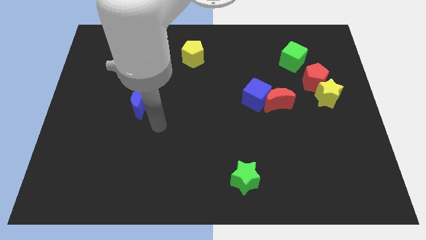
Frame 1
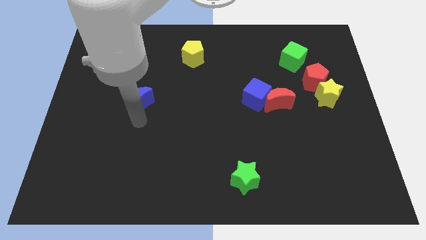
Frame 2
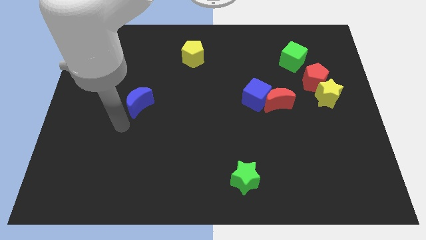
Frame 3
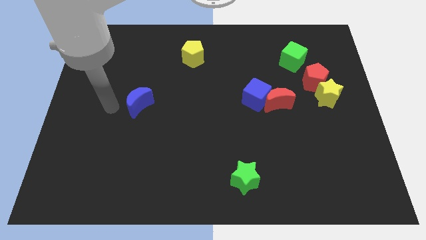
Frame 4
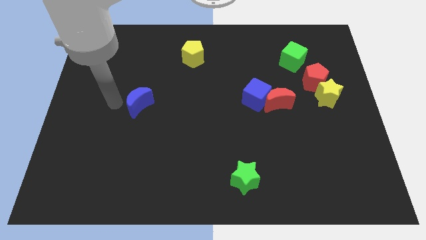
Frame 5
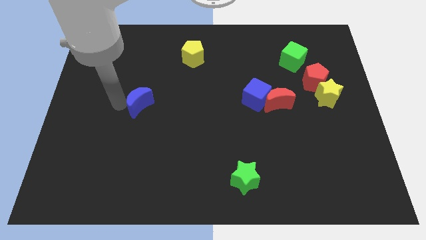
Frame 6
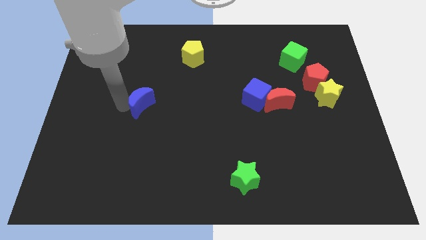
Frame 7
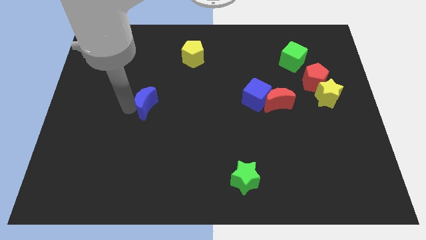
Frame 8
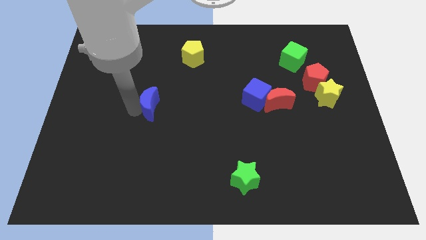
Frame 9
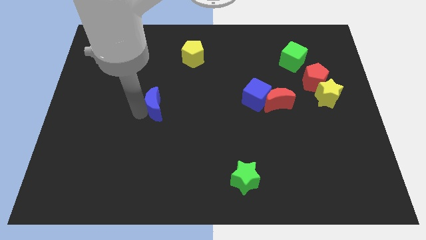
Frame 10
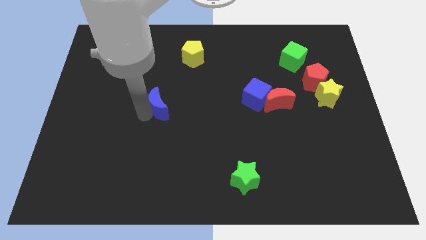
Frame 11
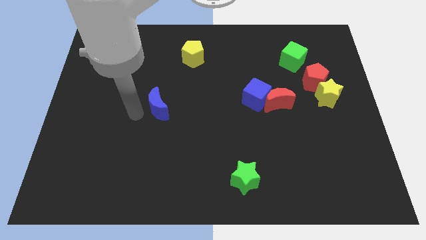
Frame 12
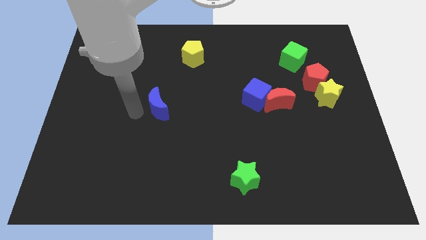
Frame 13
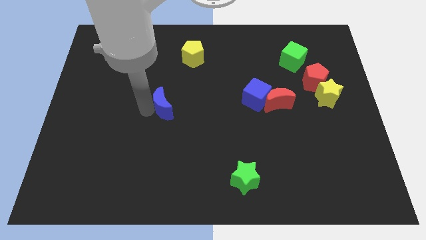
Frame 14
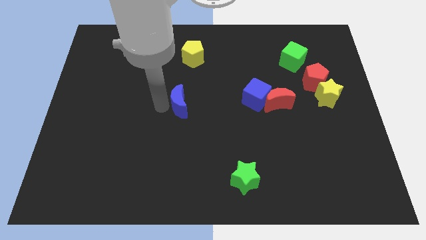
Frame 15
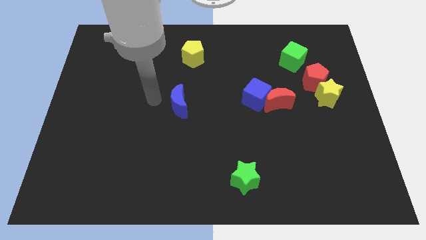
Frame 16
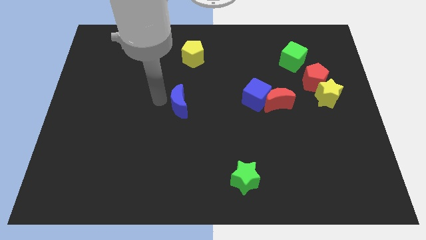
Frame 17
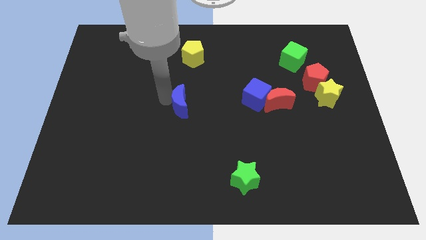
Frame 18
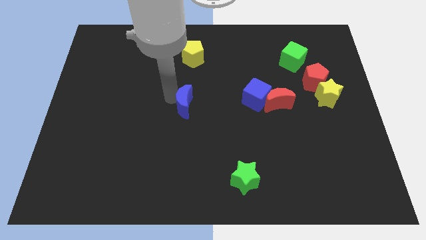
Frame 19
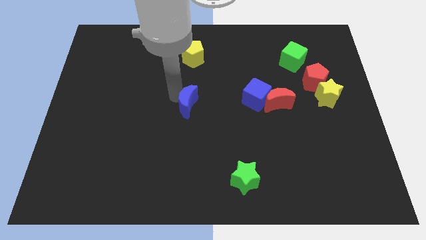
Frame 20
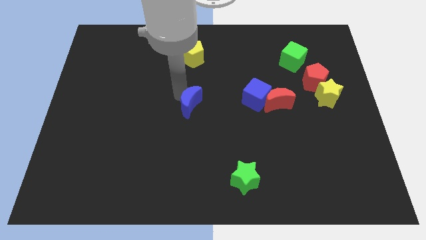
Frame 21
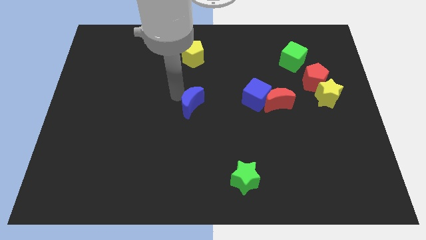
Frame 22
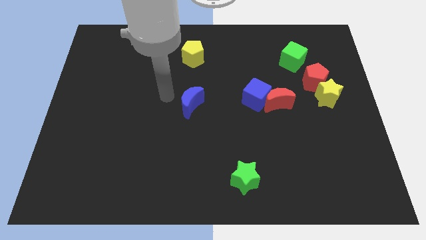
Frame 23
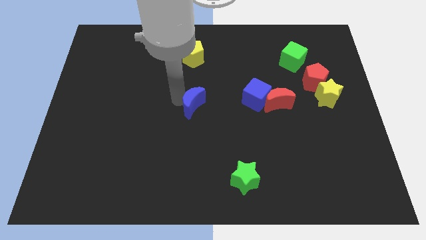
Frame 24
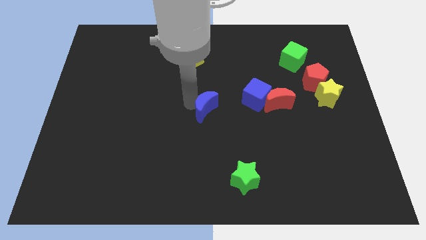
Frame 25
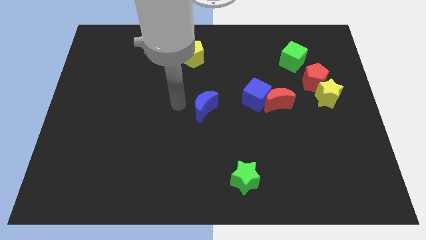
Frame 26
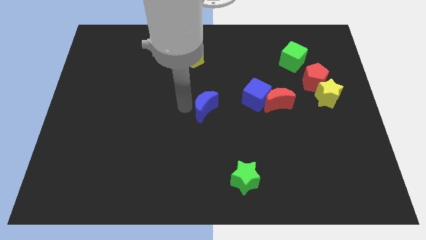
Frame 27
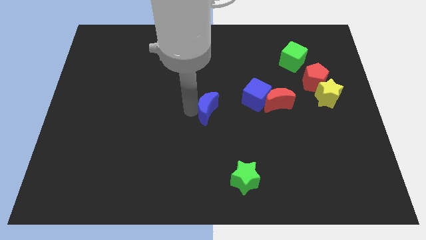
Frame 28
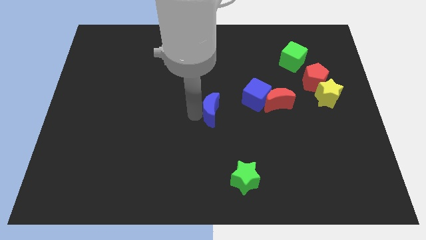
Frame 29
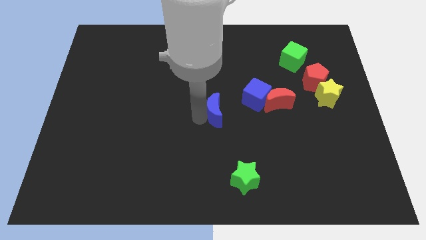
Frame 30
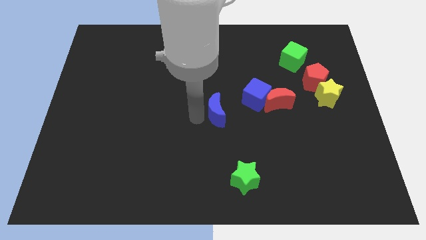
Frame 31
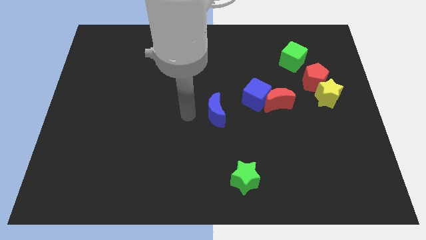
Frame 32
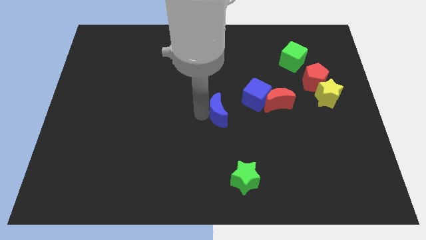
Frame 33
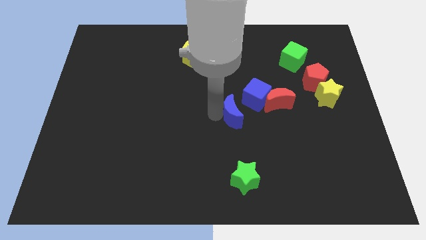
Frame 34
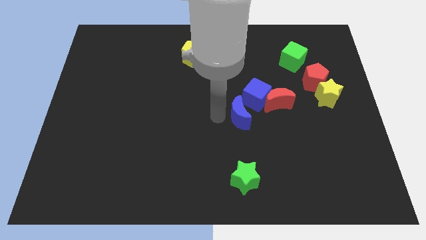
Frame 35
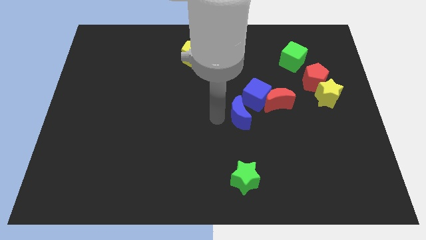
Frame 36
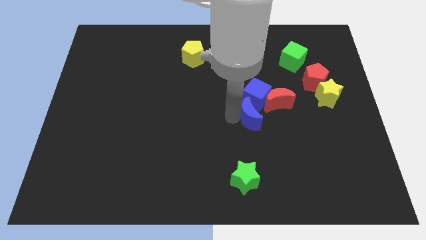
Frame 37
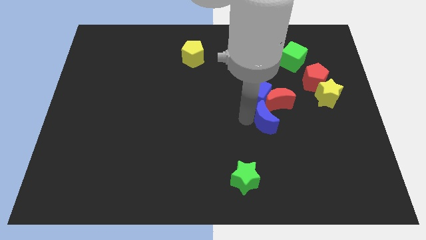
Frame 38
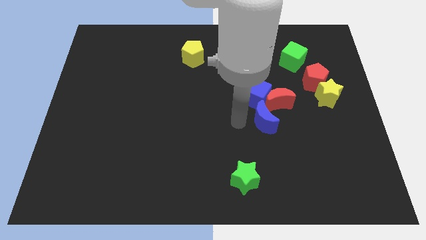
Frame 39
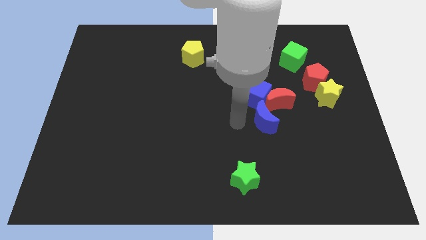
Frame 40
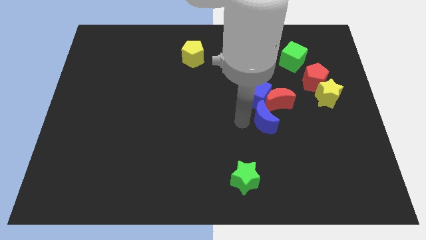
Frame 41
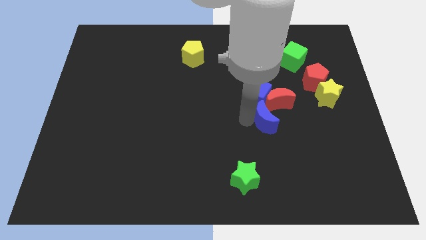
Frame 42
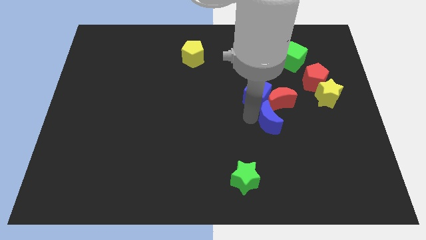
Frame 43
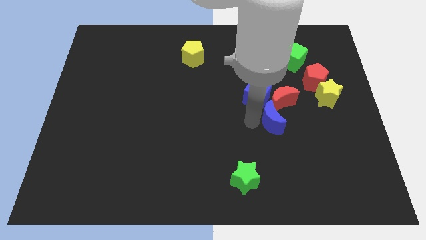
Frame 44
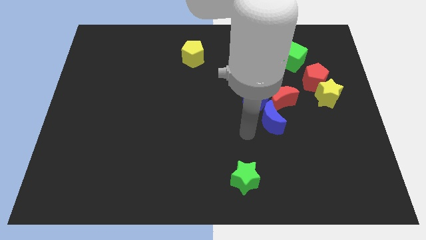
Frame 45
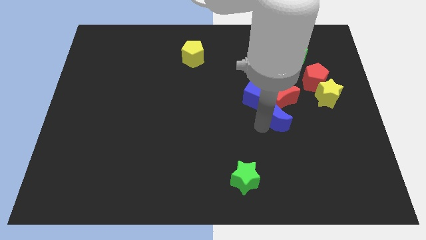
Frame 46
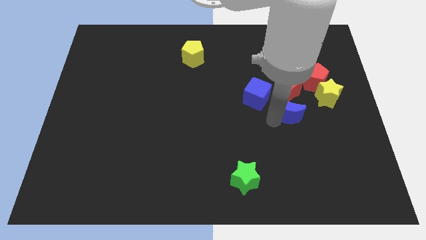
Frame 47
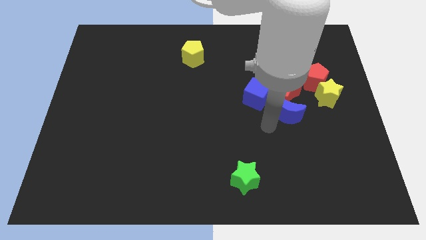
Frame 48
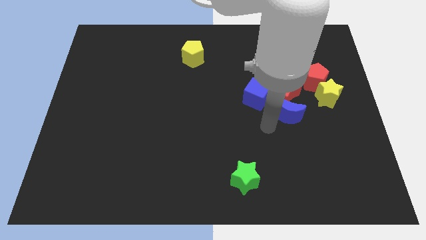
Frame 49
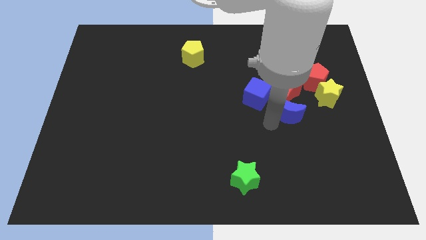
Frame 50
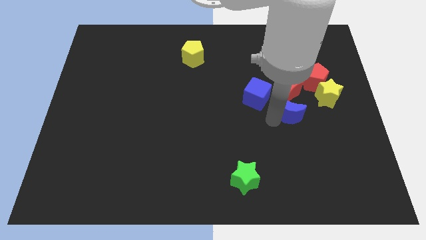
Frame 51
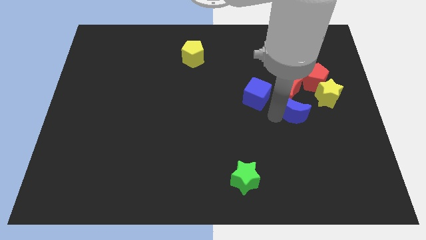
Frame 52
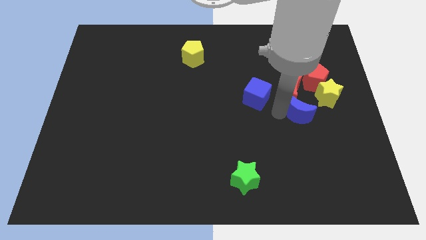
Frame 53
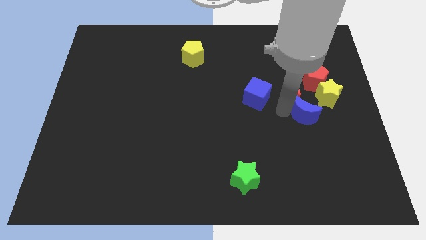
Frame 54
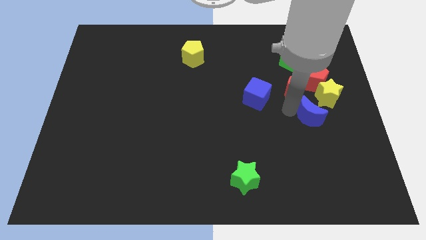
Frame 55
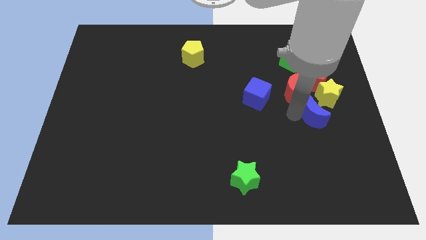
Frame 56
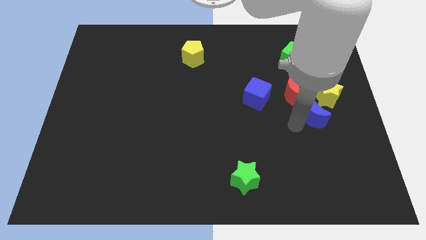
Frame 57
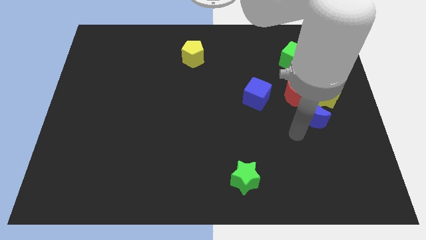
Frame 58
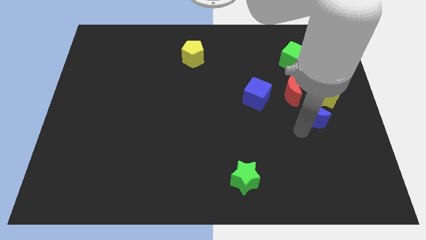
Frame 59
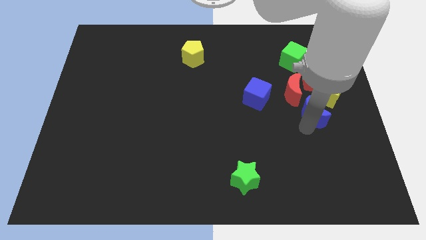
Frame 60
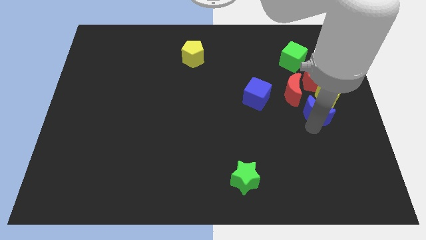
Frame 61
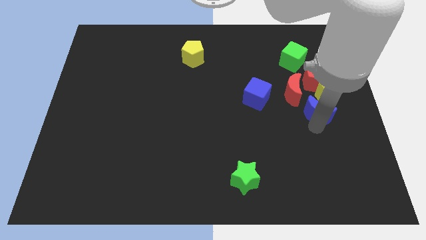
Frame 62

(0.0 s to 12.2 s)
slide the blue moon next to the yellow star

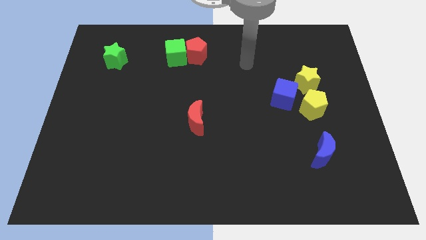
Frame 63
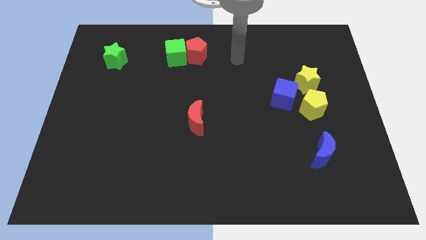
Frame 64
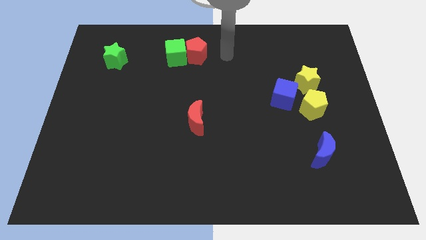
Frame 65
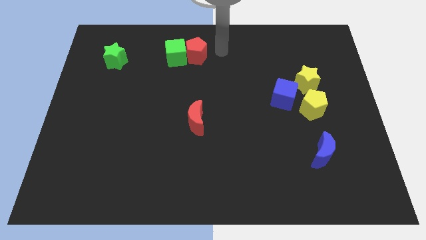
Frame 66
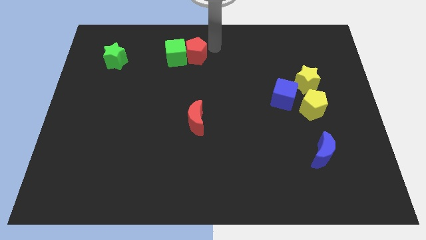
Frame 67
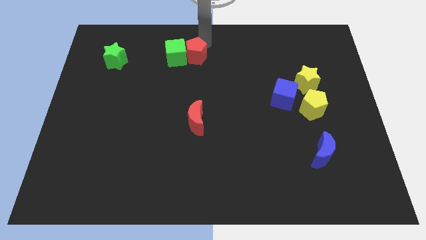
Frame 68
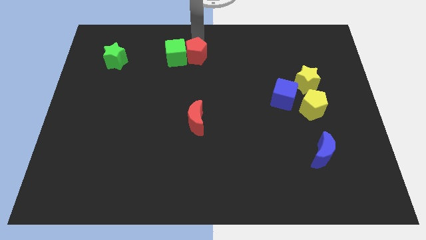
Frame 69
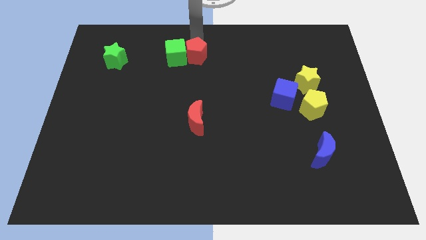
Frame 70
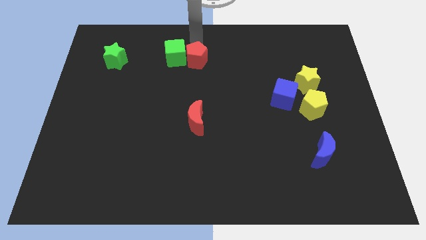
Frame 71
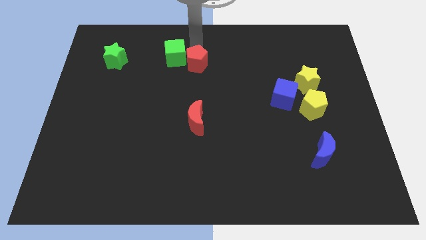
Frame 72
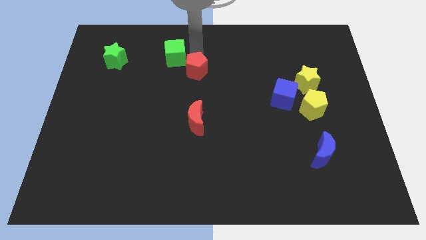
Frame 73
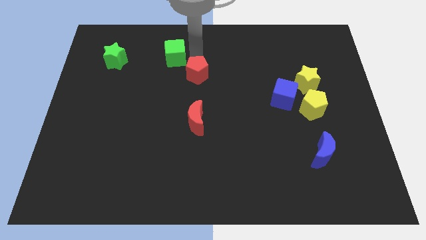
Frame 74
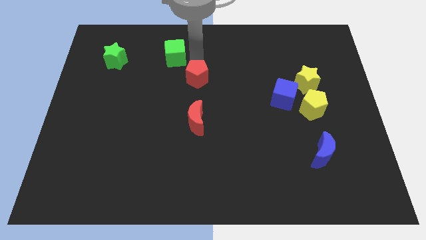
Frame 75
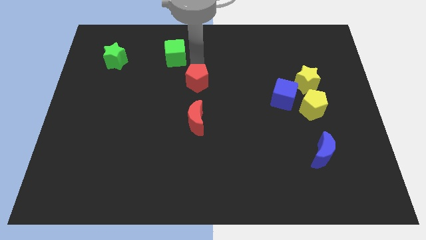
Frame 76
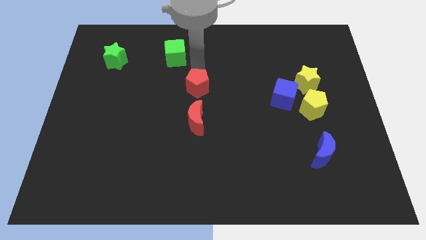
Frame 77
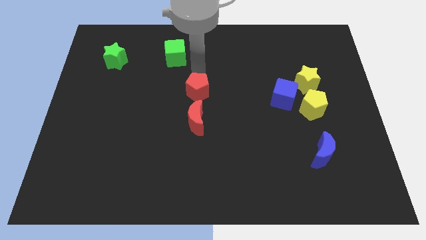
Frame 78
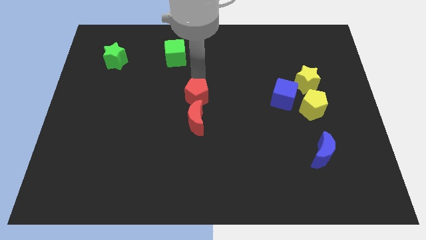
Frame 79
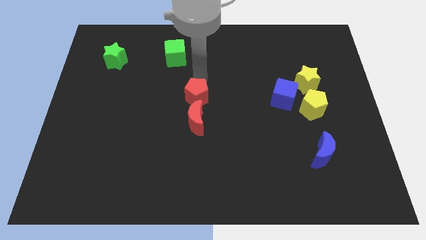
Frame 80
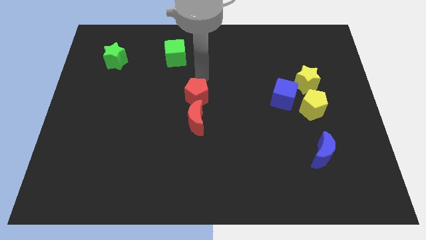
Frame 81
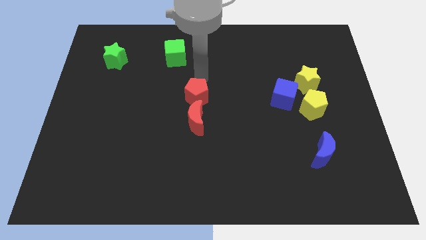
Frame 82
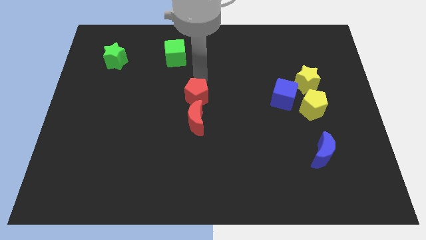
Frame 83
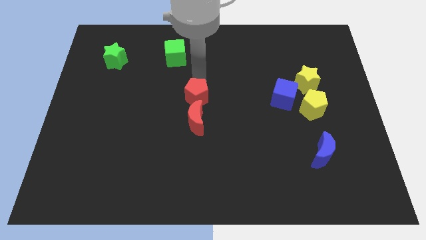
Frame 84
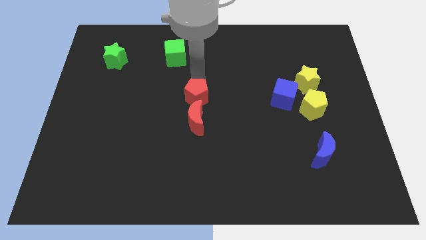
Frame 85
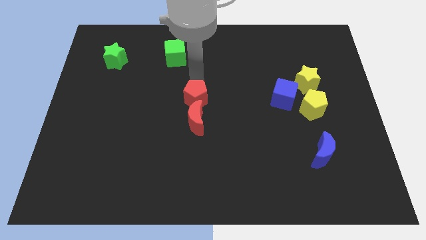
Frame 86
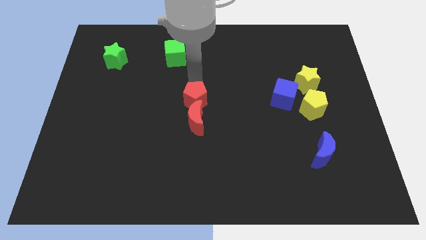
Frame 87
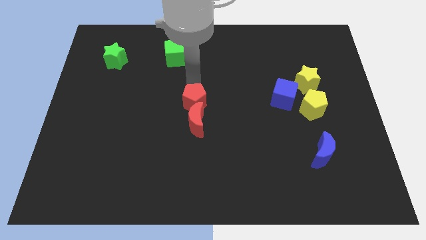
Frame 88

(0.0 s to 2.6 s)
push the red pentagon to the red moon
